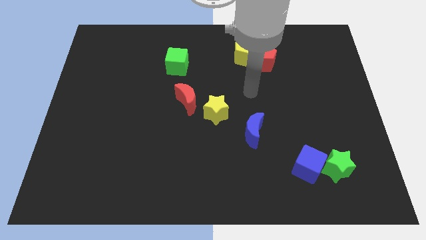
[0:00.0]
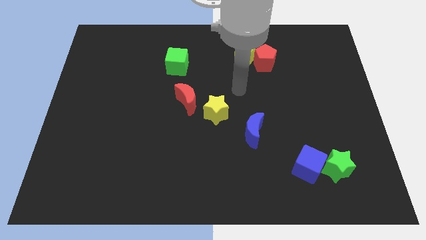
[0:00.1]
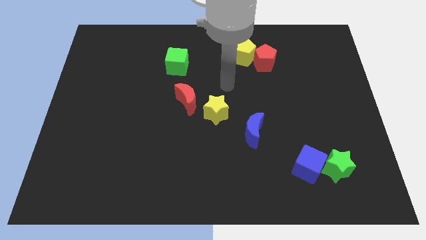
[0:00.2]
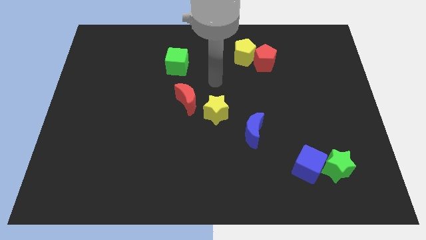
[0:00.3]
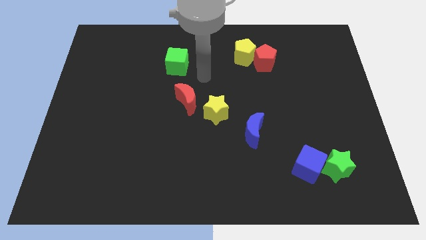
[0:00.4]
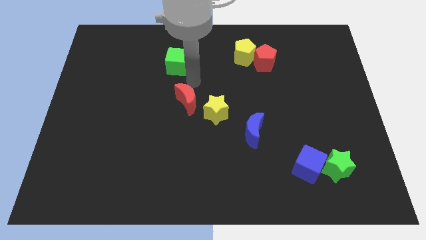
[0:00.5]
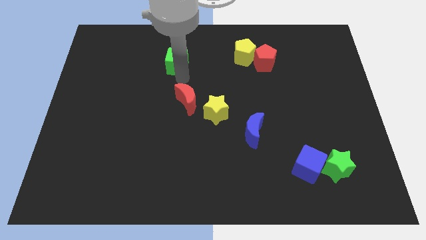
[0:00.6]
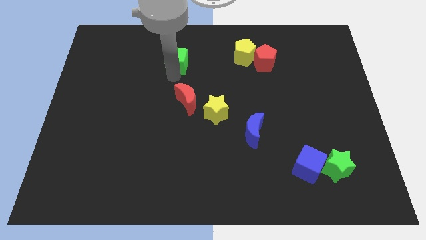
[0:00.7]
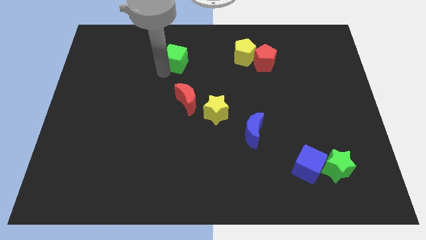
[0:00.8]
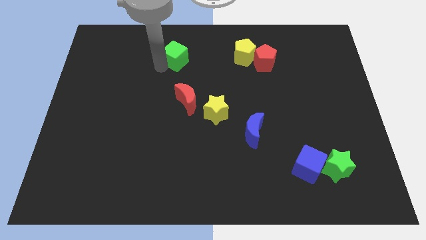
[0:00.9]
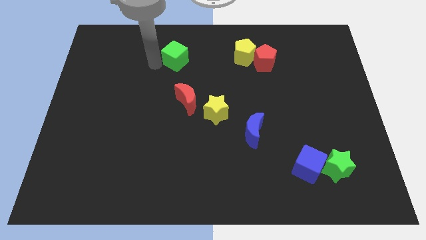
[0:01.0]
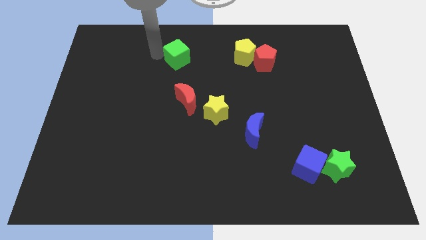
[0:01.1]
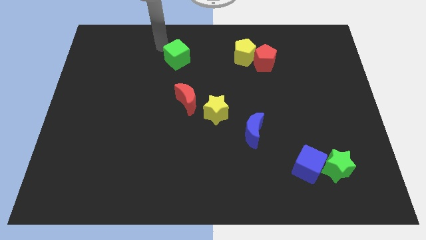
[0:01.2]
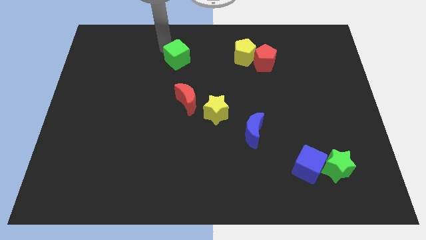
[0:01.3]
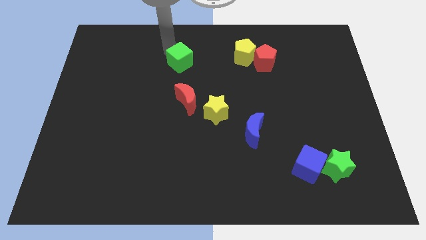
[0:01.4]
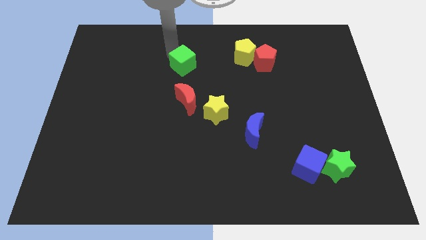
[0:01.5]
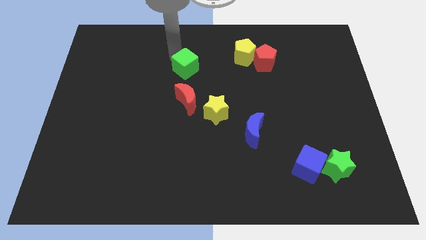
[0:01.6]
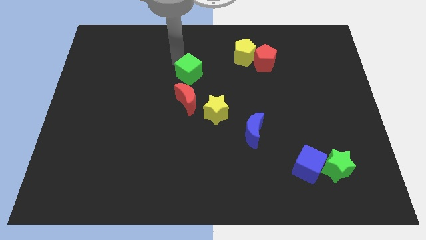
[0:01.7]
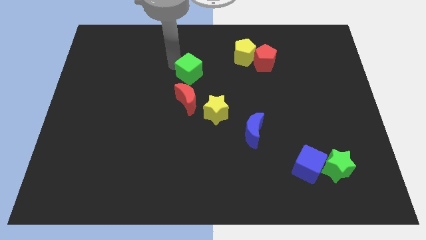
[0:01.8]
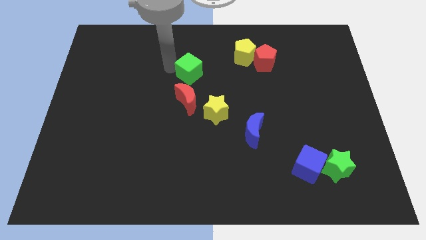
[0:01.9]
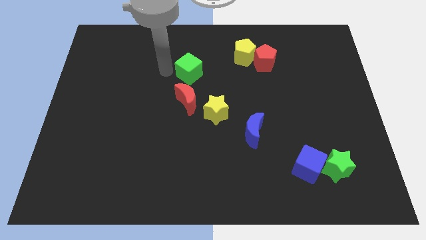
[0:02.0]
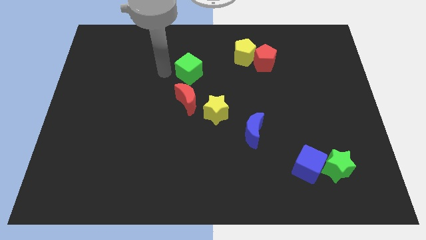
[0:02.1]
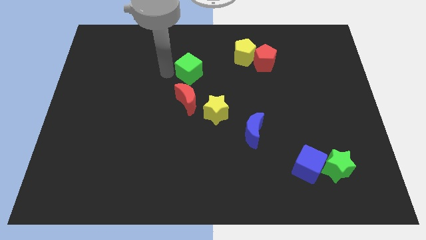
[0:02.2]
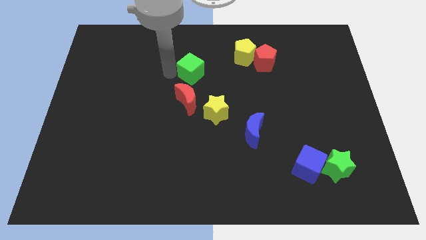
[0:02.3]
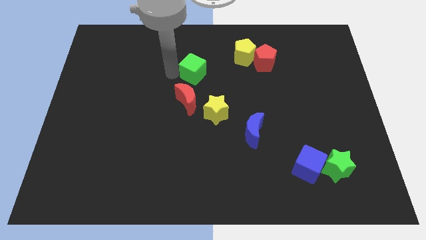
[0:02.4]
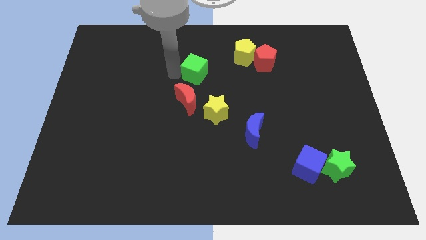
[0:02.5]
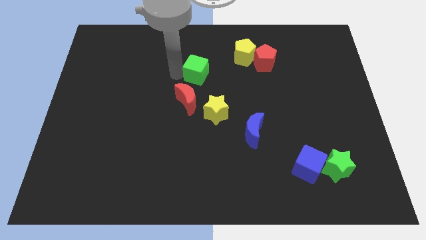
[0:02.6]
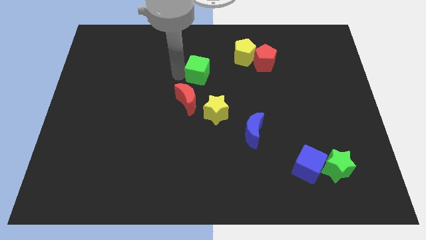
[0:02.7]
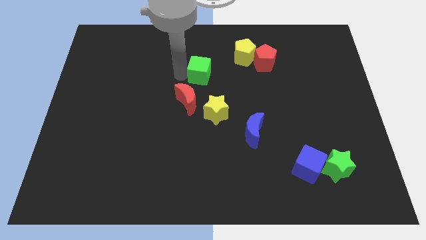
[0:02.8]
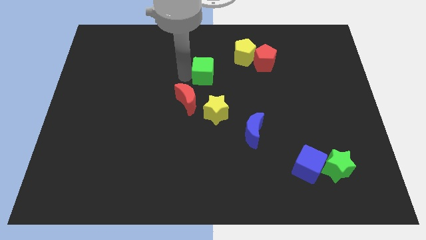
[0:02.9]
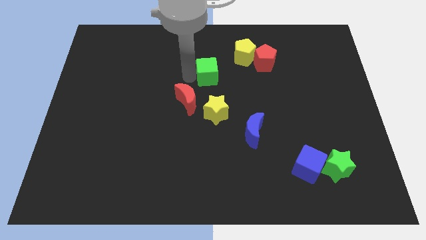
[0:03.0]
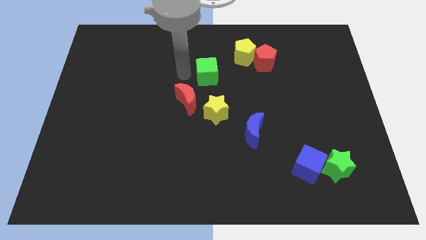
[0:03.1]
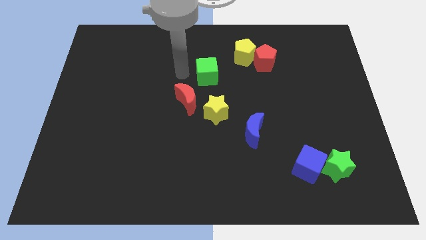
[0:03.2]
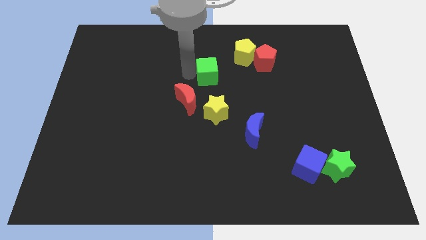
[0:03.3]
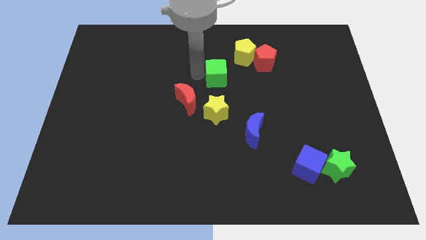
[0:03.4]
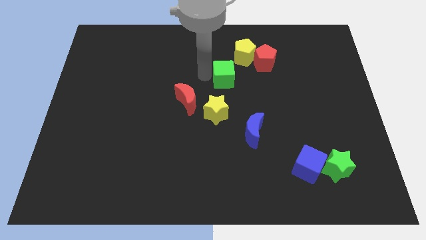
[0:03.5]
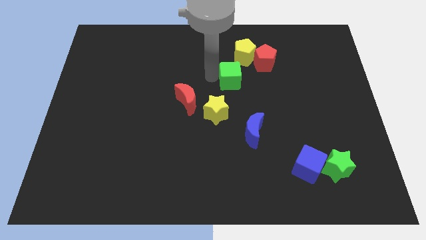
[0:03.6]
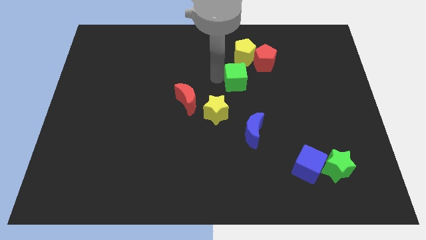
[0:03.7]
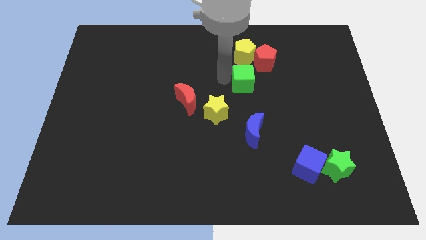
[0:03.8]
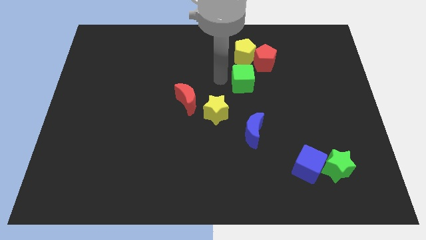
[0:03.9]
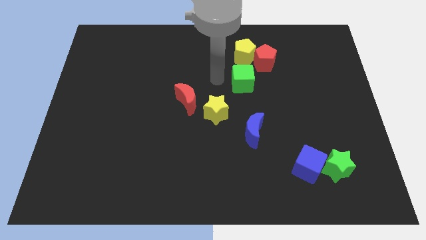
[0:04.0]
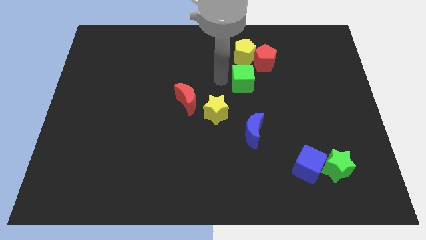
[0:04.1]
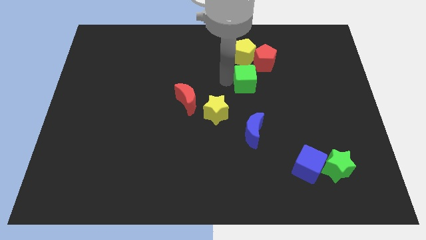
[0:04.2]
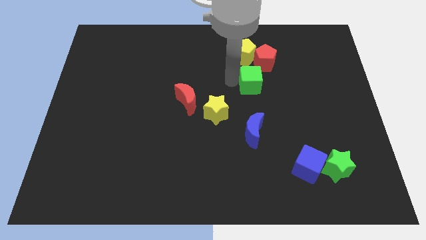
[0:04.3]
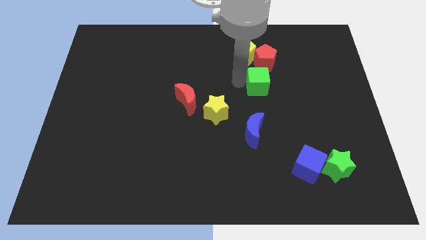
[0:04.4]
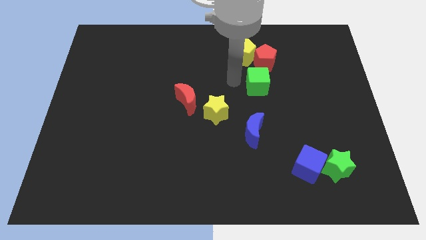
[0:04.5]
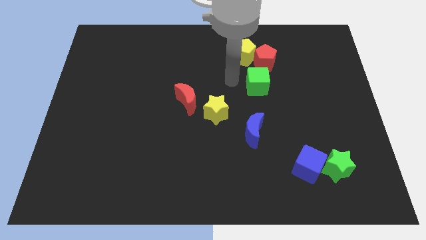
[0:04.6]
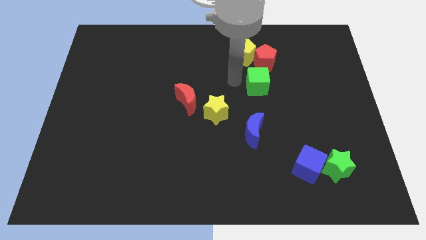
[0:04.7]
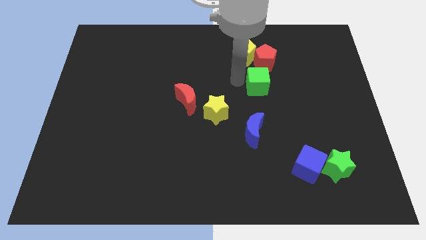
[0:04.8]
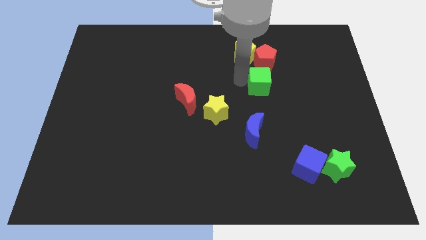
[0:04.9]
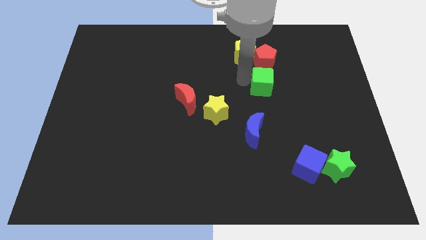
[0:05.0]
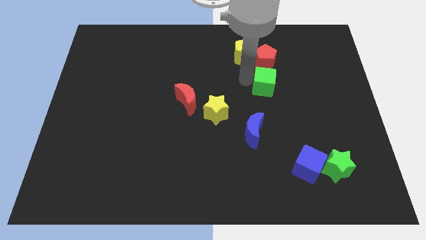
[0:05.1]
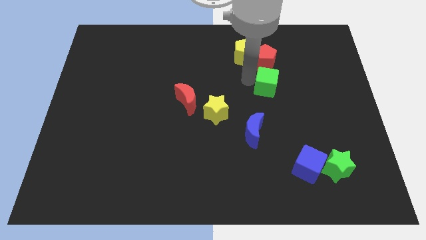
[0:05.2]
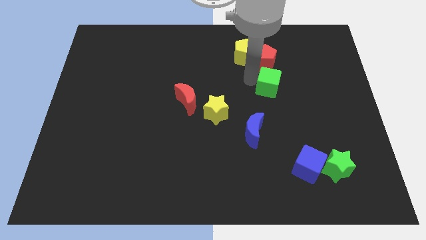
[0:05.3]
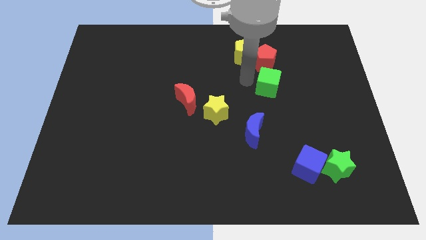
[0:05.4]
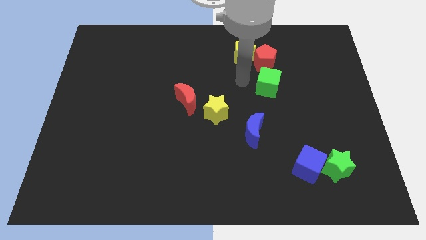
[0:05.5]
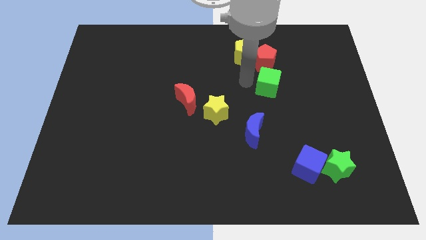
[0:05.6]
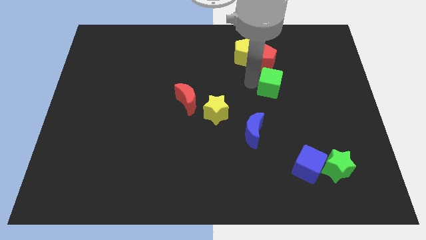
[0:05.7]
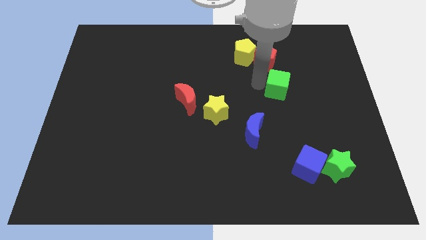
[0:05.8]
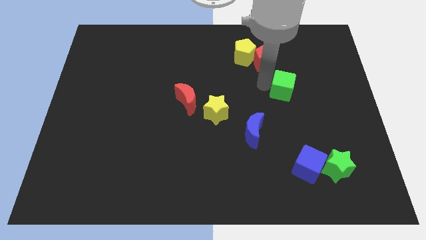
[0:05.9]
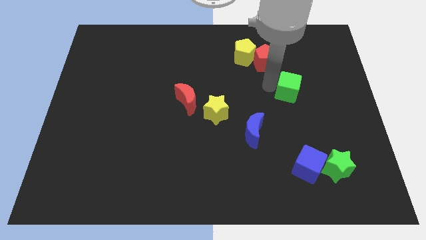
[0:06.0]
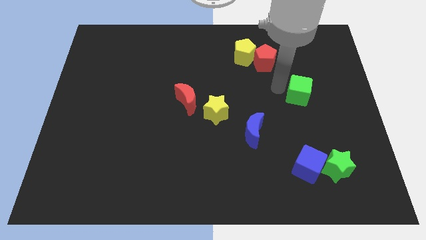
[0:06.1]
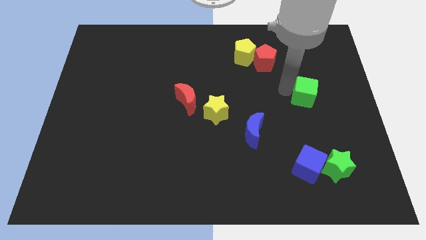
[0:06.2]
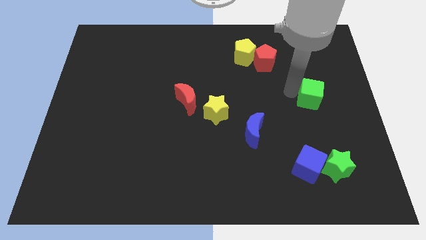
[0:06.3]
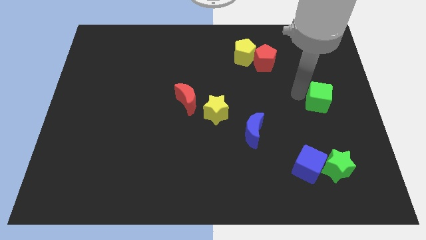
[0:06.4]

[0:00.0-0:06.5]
push the green cube to the right side of the board

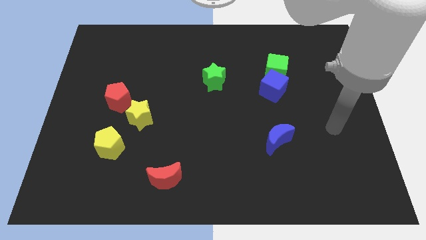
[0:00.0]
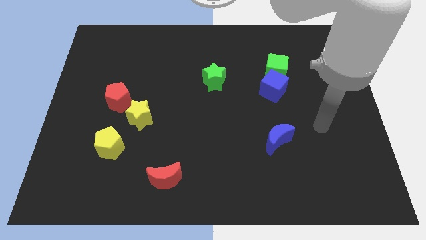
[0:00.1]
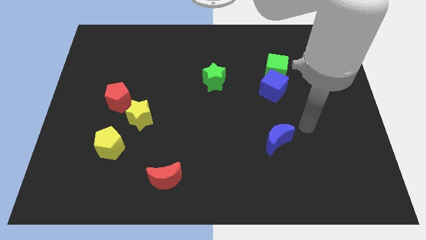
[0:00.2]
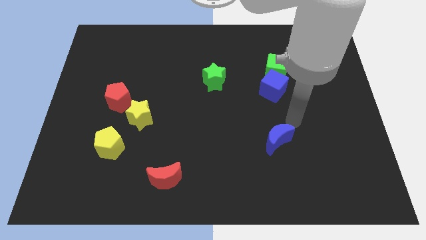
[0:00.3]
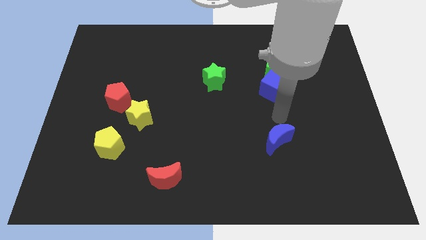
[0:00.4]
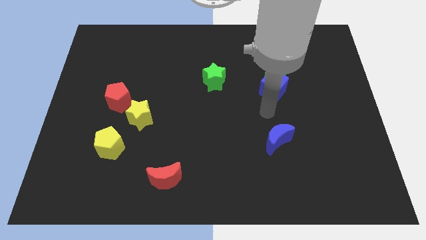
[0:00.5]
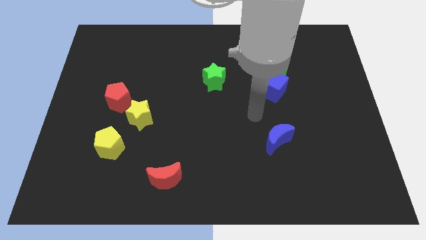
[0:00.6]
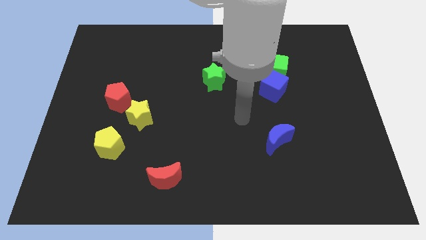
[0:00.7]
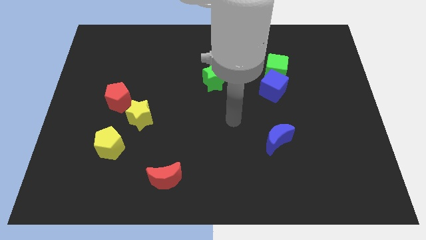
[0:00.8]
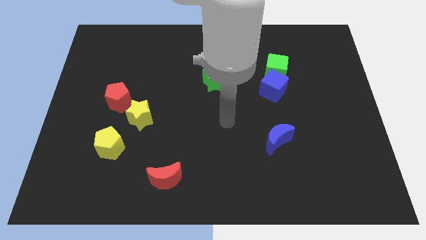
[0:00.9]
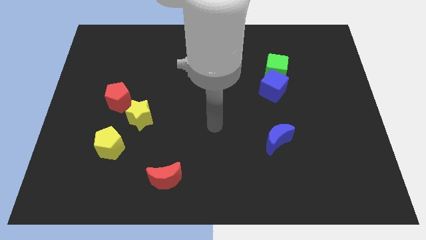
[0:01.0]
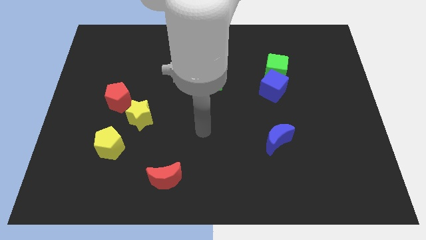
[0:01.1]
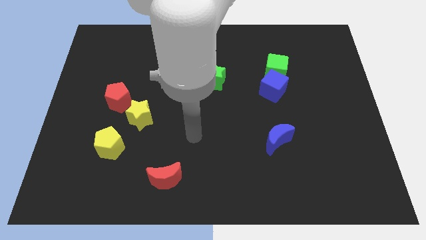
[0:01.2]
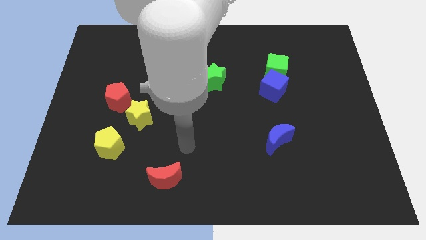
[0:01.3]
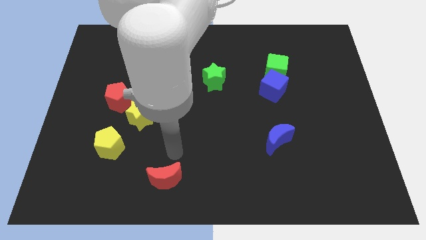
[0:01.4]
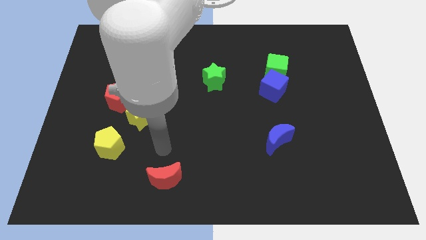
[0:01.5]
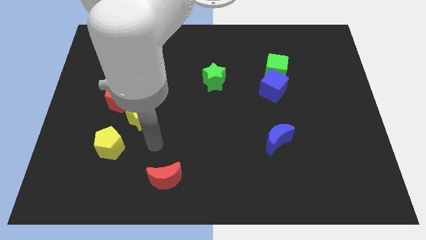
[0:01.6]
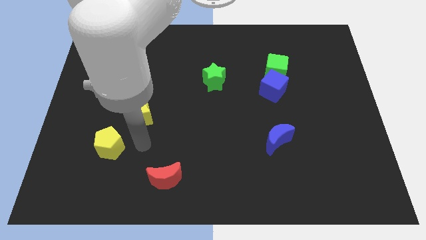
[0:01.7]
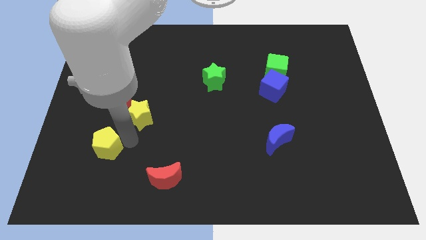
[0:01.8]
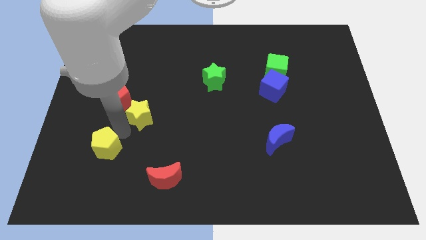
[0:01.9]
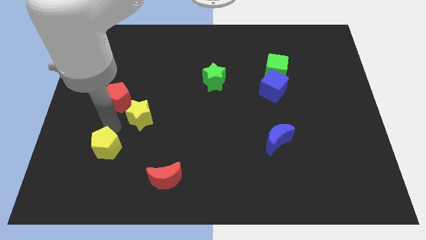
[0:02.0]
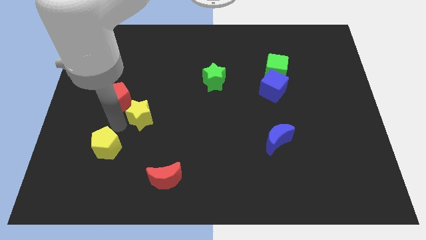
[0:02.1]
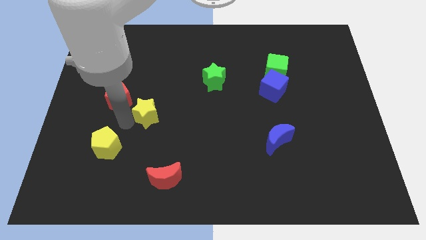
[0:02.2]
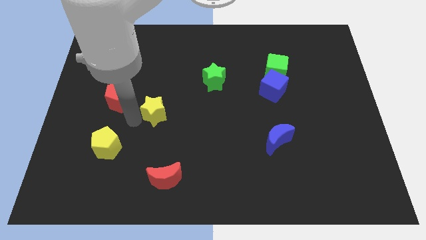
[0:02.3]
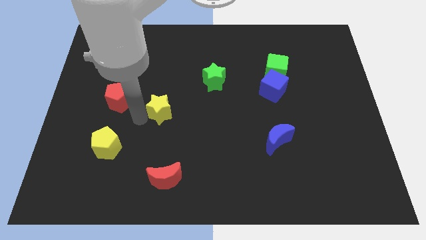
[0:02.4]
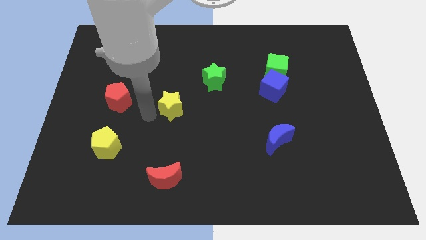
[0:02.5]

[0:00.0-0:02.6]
slide the yellow star to the middle
